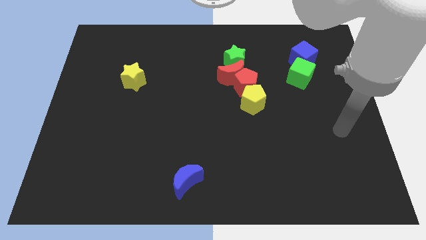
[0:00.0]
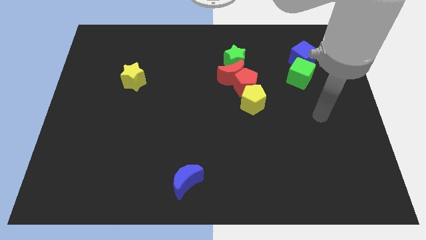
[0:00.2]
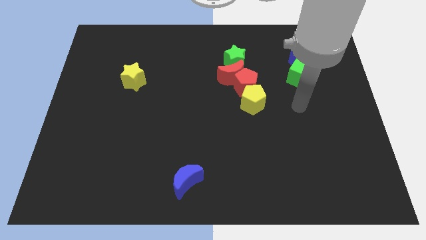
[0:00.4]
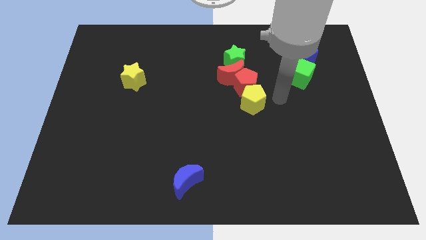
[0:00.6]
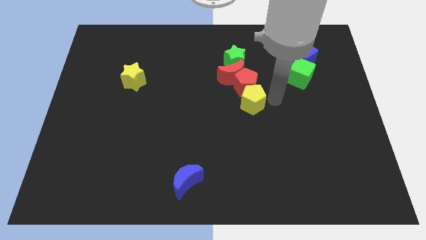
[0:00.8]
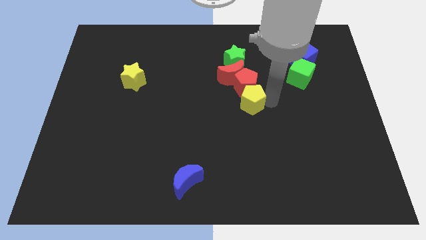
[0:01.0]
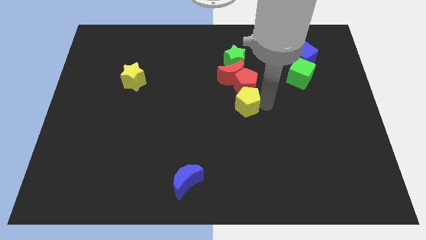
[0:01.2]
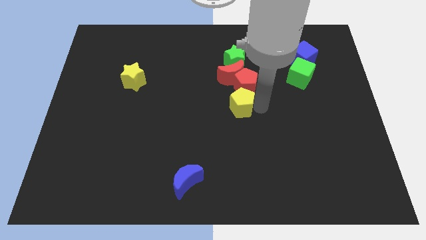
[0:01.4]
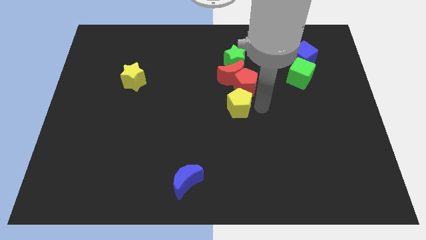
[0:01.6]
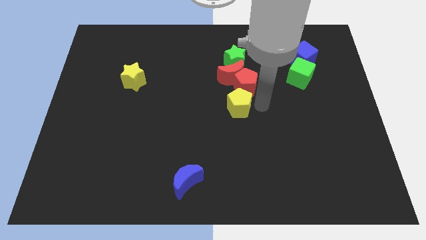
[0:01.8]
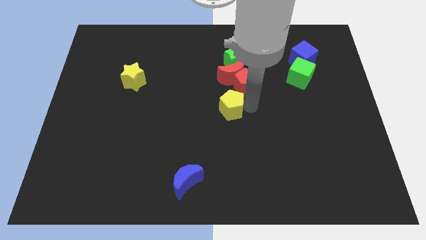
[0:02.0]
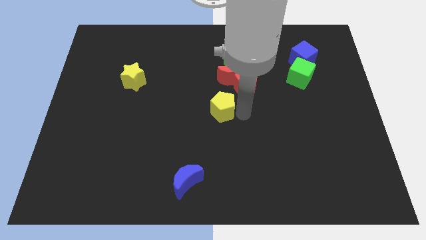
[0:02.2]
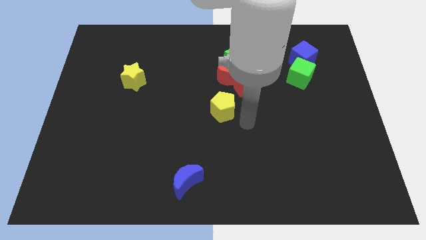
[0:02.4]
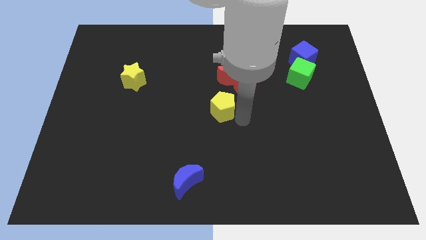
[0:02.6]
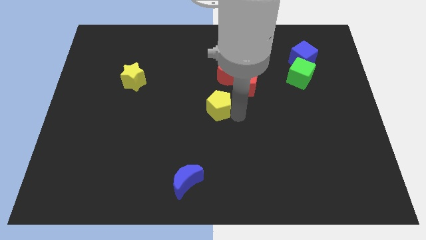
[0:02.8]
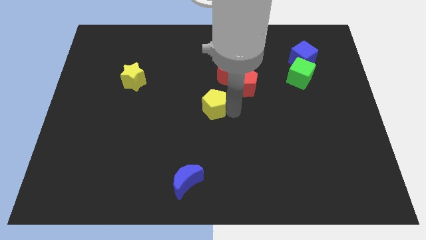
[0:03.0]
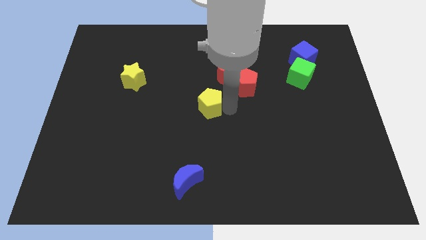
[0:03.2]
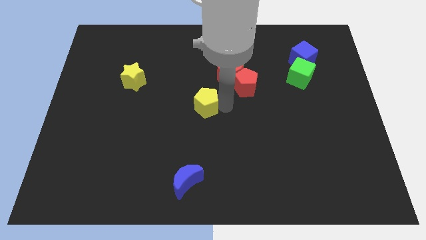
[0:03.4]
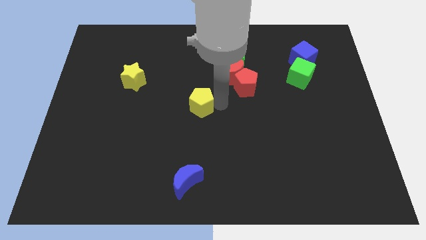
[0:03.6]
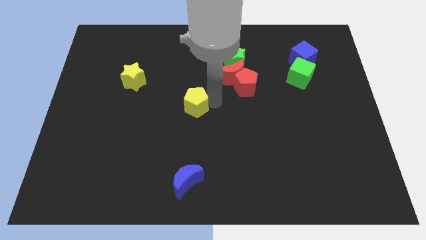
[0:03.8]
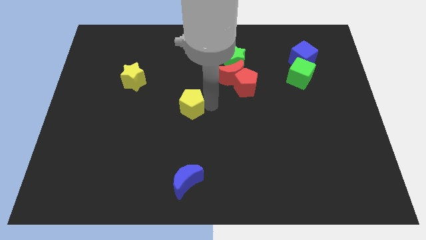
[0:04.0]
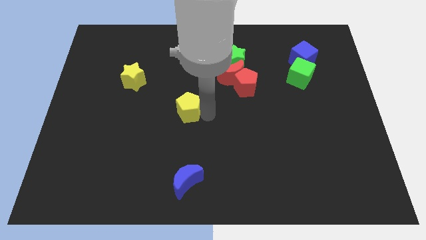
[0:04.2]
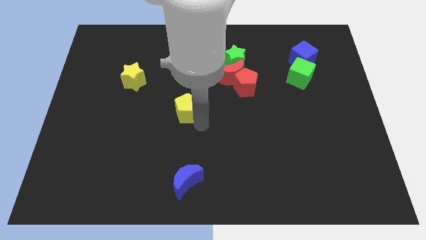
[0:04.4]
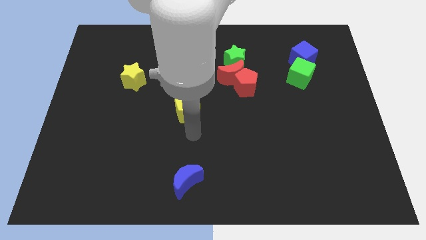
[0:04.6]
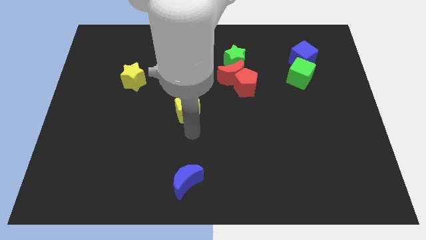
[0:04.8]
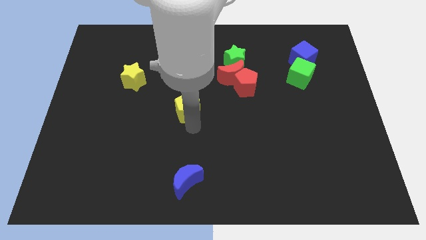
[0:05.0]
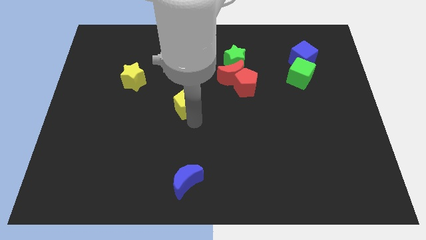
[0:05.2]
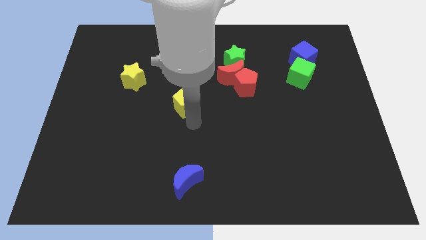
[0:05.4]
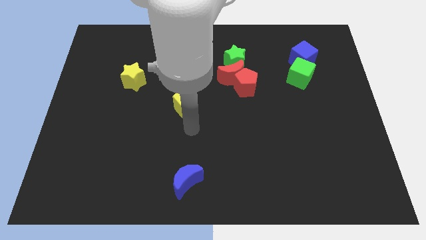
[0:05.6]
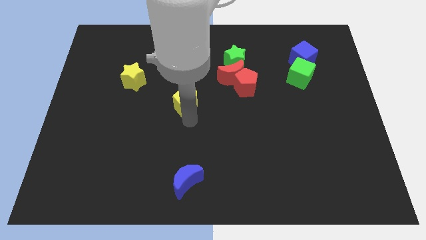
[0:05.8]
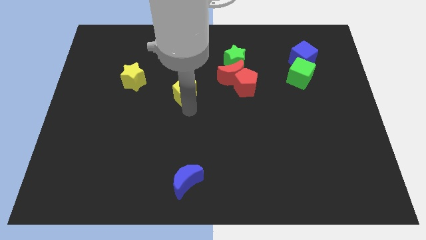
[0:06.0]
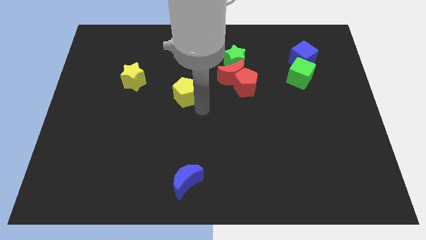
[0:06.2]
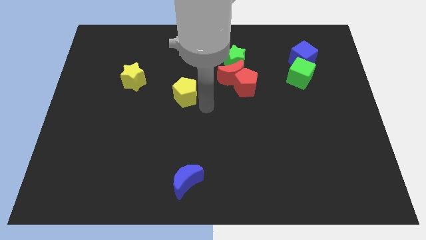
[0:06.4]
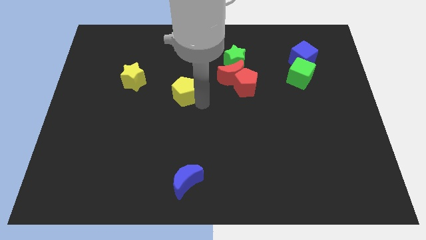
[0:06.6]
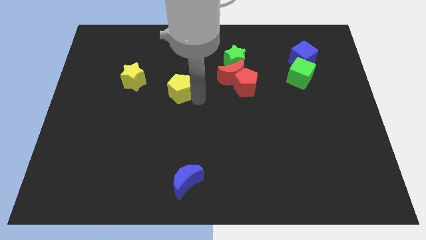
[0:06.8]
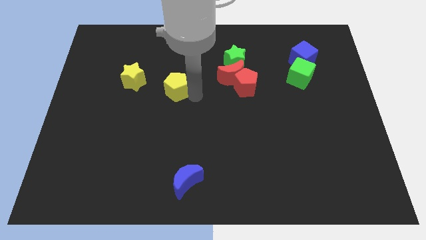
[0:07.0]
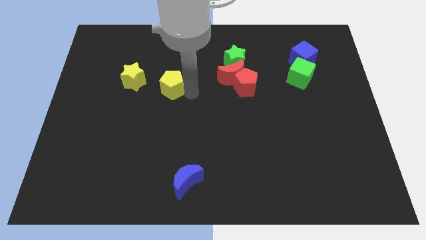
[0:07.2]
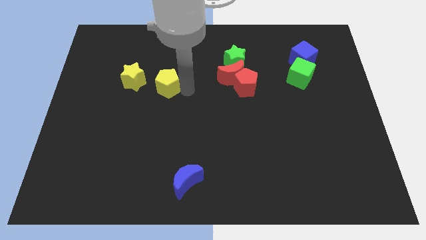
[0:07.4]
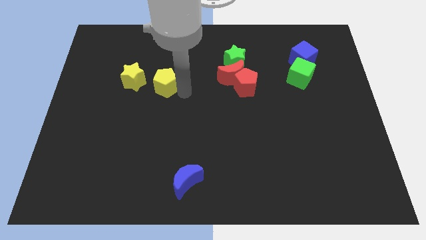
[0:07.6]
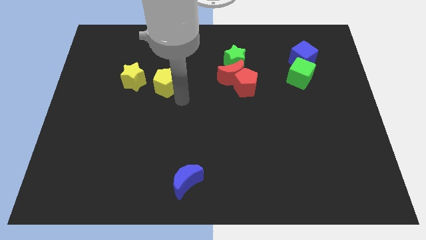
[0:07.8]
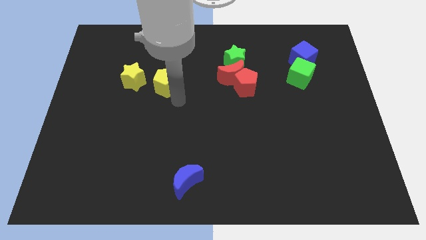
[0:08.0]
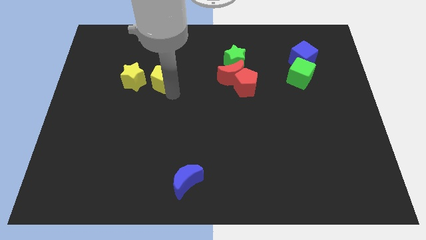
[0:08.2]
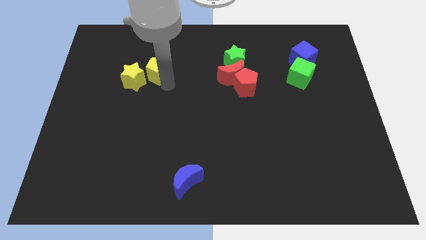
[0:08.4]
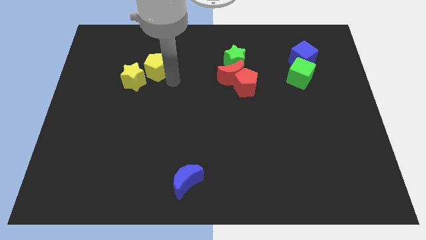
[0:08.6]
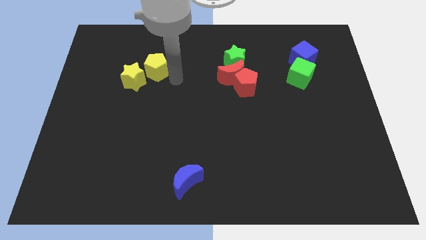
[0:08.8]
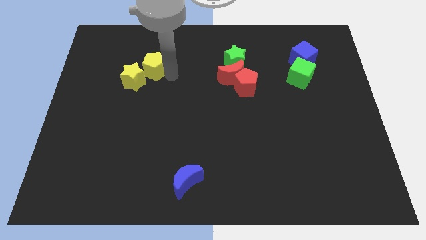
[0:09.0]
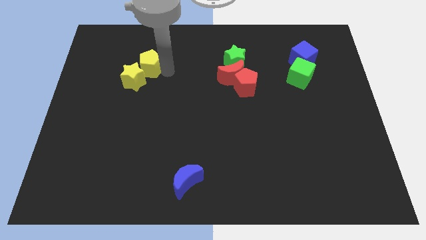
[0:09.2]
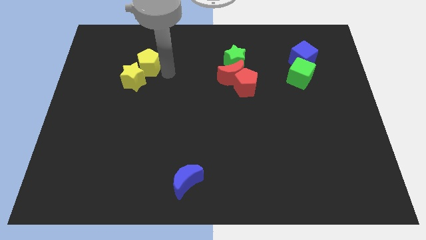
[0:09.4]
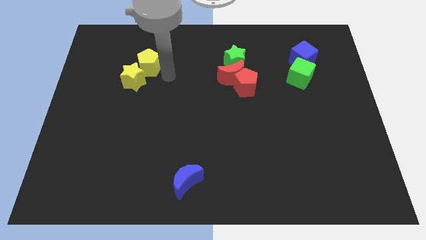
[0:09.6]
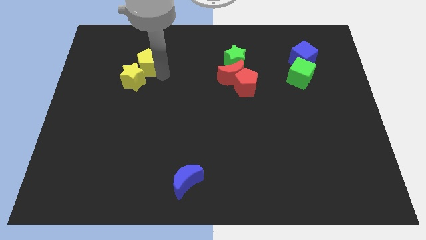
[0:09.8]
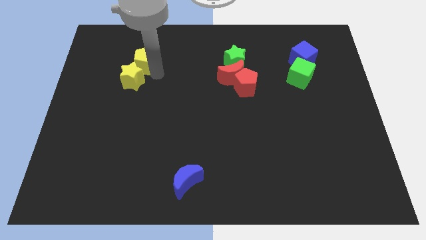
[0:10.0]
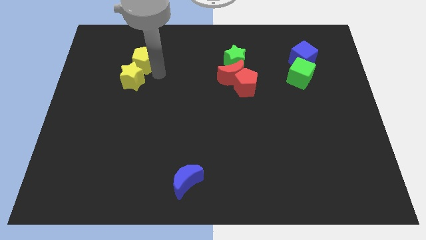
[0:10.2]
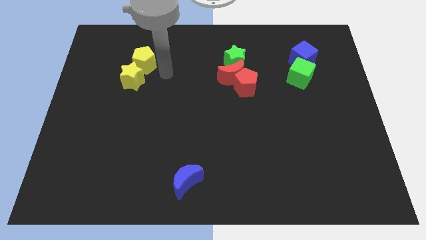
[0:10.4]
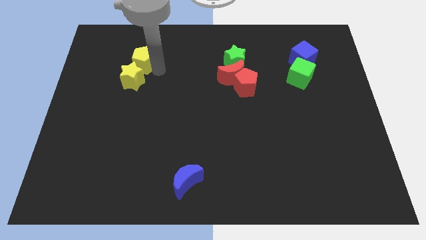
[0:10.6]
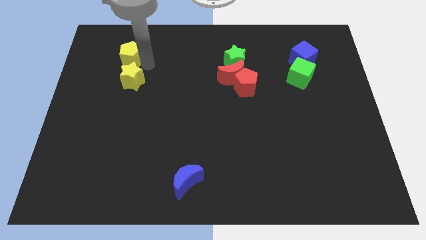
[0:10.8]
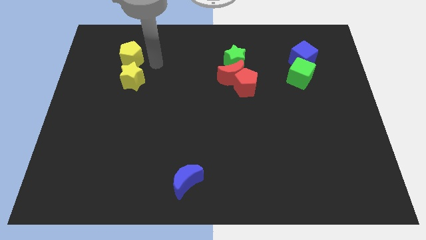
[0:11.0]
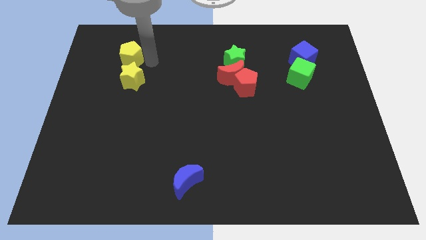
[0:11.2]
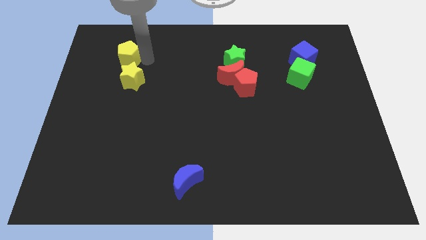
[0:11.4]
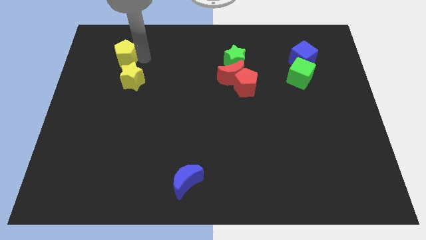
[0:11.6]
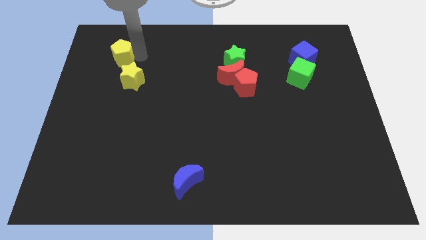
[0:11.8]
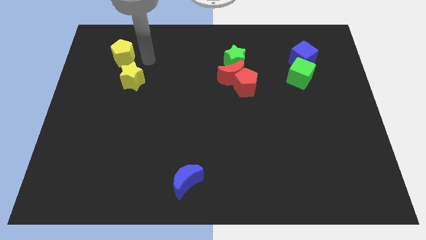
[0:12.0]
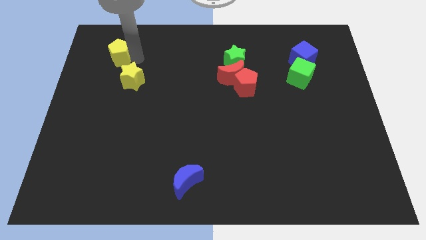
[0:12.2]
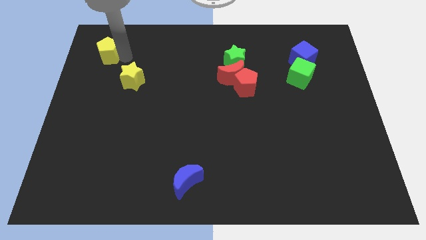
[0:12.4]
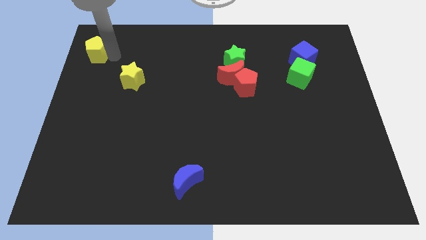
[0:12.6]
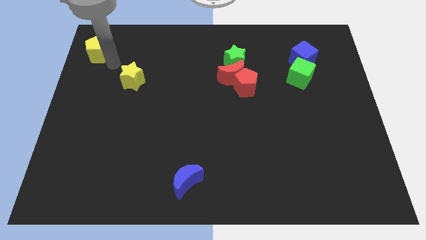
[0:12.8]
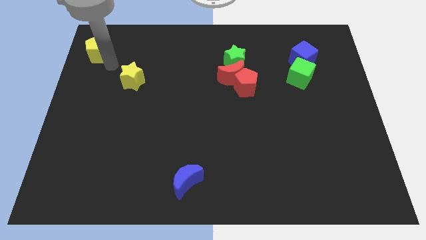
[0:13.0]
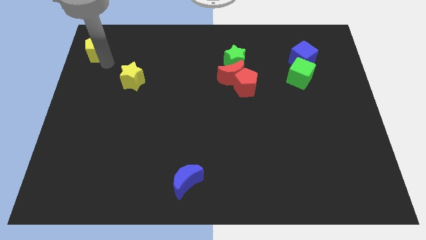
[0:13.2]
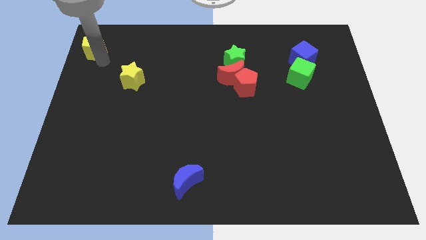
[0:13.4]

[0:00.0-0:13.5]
slide the yellow pentagon to the upper left corner

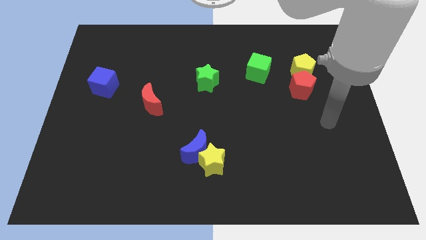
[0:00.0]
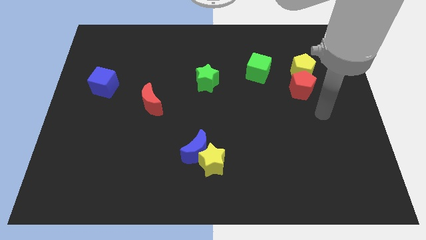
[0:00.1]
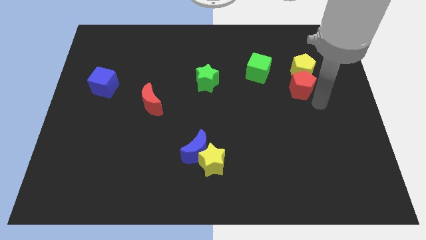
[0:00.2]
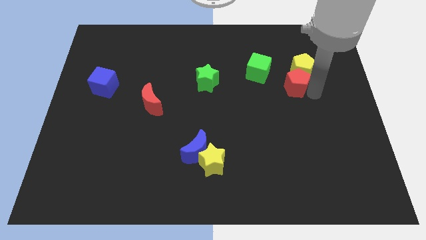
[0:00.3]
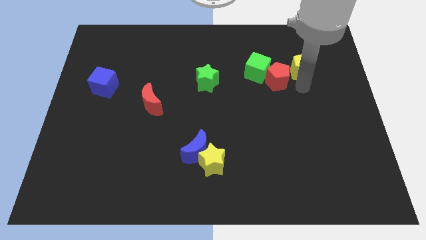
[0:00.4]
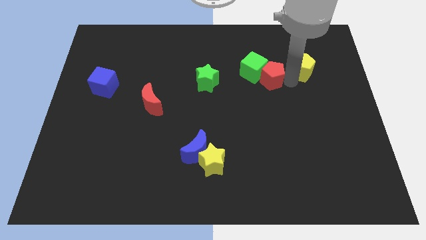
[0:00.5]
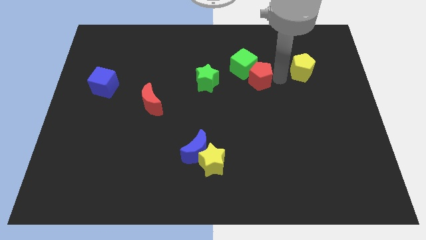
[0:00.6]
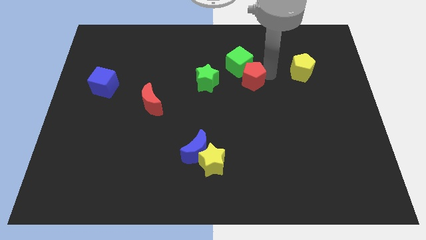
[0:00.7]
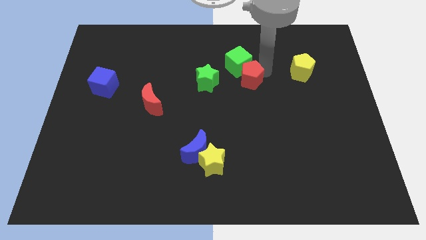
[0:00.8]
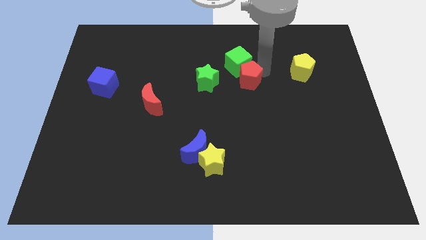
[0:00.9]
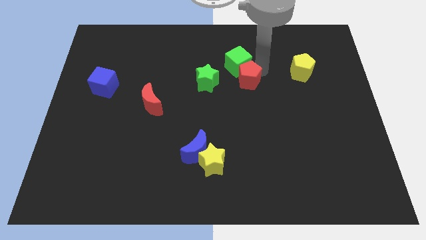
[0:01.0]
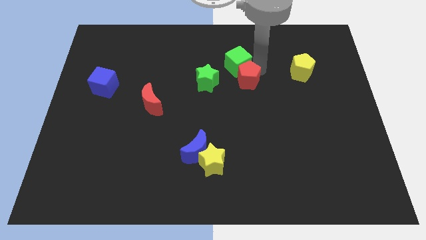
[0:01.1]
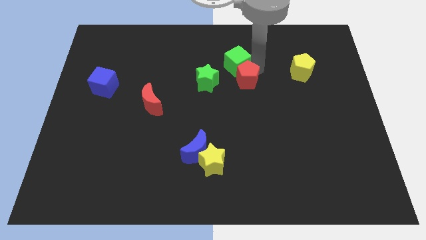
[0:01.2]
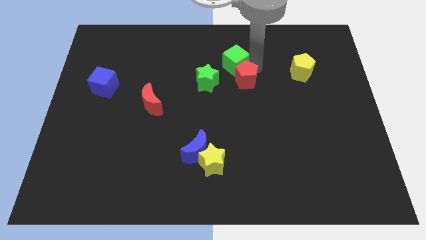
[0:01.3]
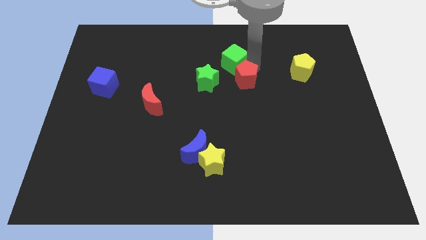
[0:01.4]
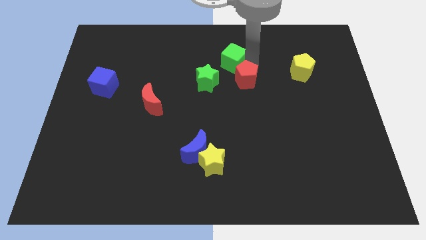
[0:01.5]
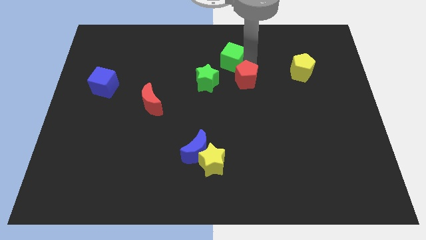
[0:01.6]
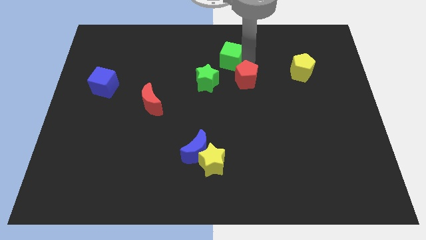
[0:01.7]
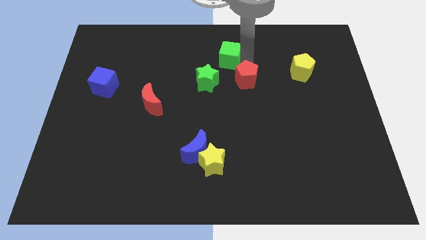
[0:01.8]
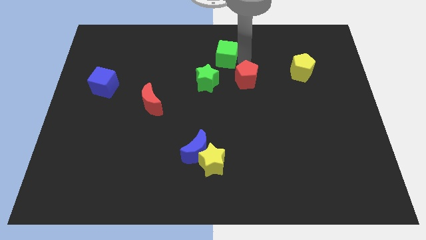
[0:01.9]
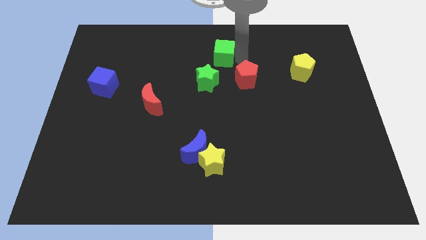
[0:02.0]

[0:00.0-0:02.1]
put the green cube to the towards your base
